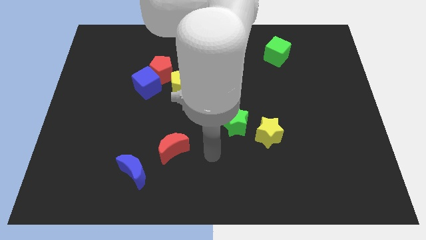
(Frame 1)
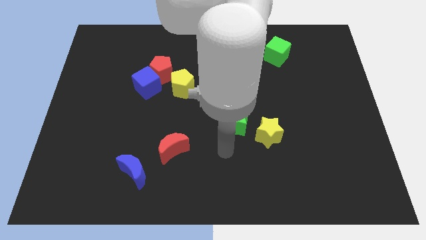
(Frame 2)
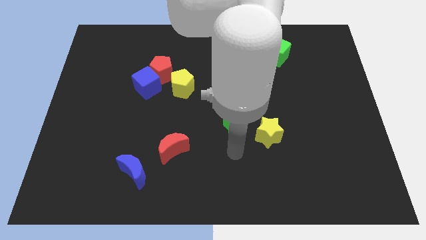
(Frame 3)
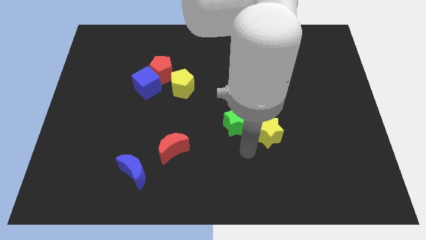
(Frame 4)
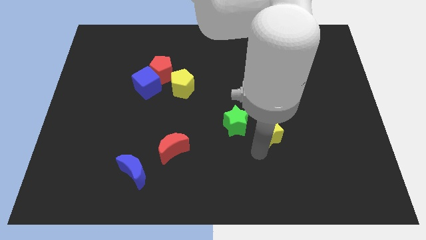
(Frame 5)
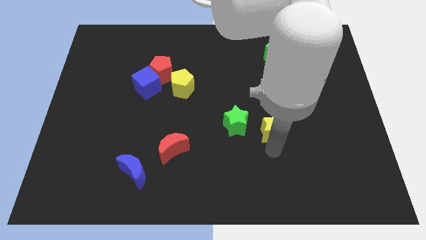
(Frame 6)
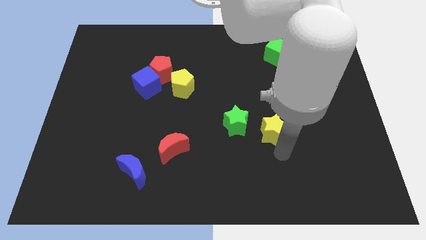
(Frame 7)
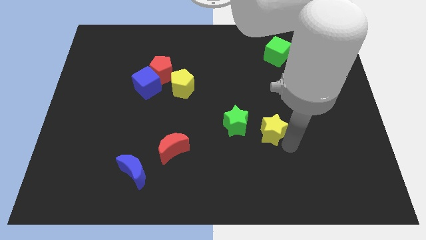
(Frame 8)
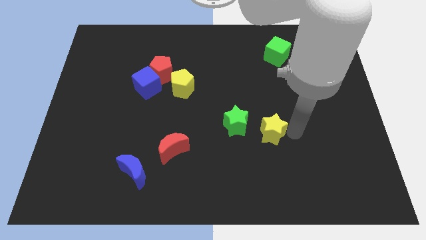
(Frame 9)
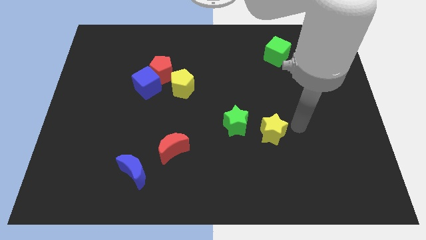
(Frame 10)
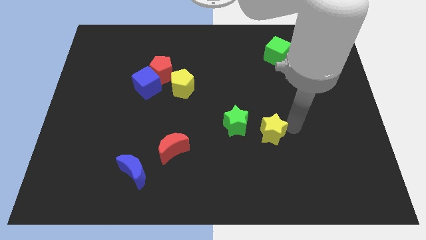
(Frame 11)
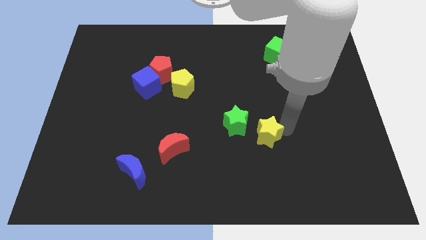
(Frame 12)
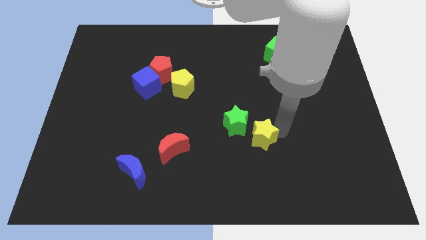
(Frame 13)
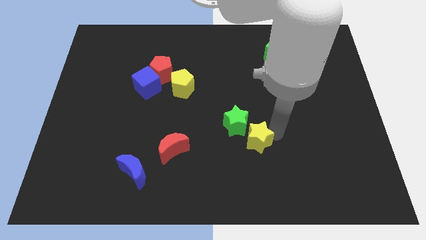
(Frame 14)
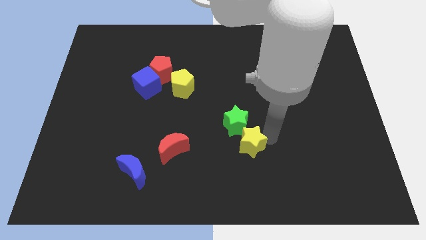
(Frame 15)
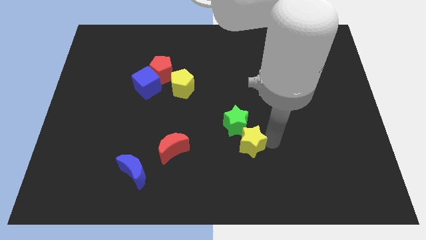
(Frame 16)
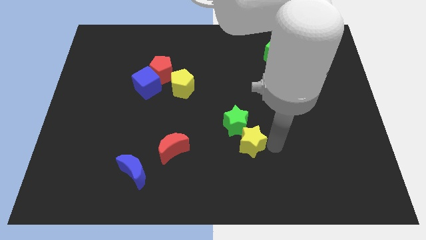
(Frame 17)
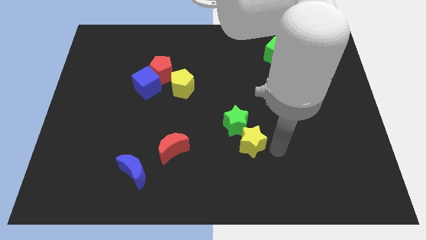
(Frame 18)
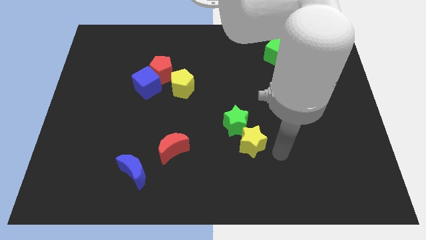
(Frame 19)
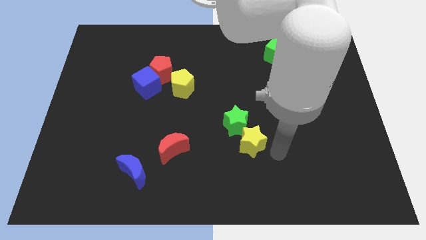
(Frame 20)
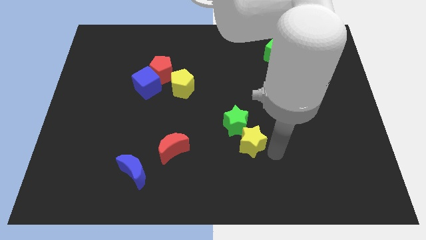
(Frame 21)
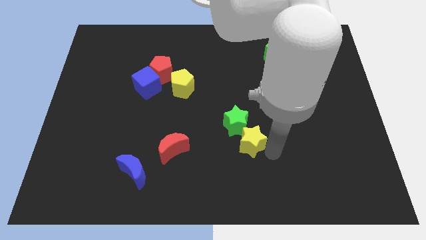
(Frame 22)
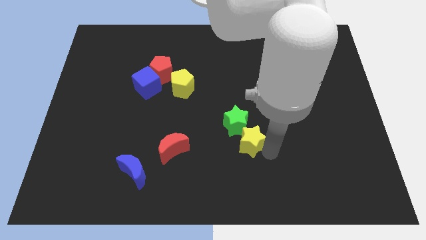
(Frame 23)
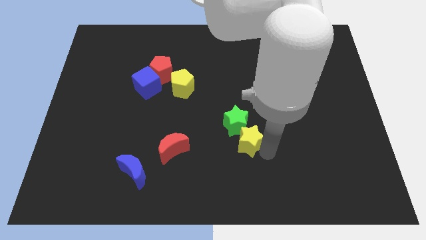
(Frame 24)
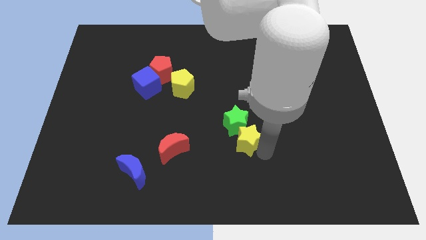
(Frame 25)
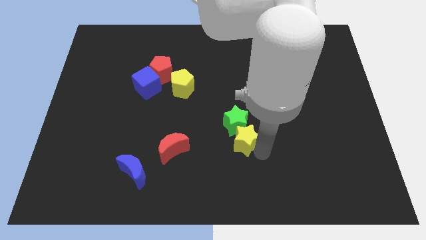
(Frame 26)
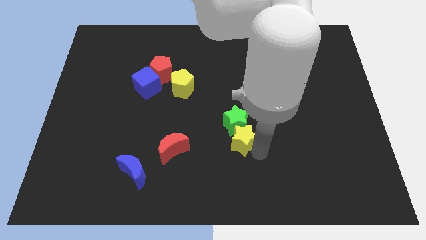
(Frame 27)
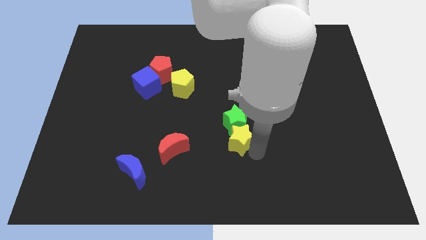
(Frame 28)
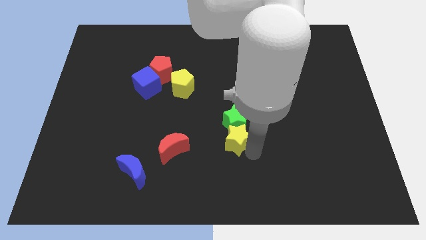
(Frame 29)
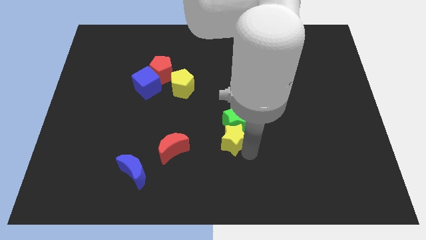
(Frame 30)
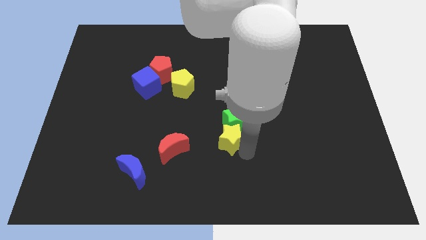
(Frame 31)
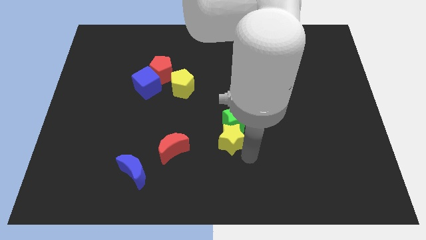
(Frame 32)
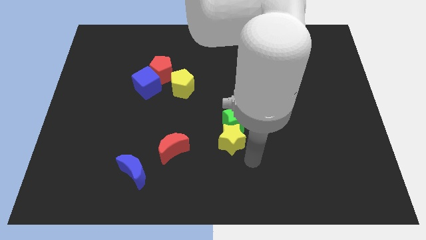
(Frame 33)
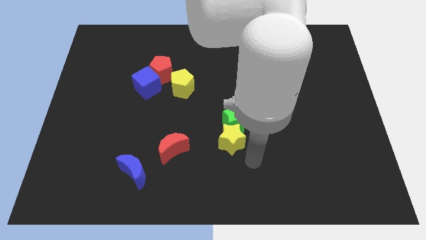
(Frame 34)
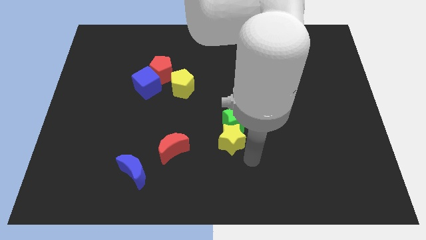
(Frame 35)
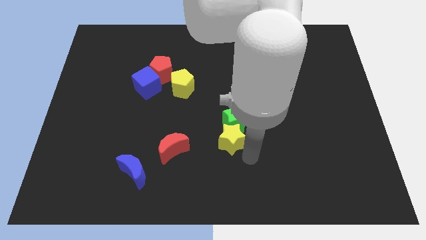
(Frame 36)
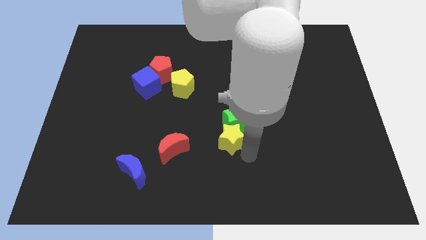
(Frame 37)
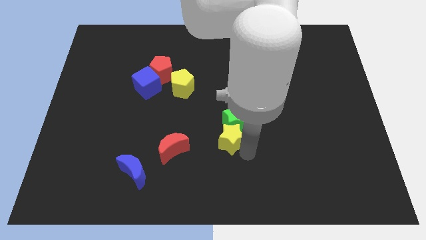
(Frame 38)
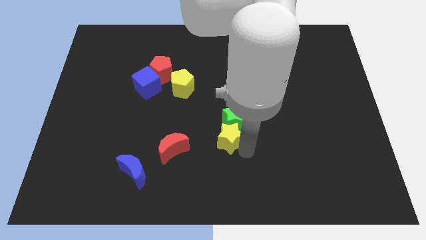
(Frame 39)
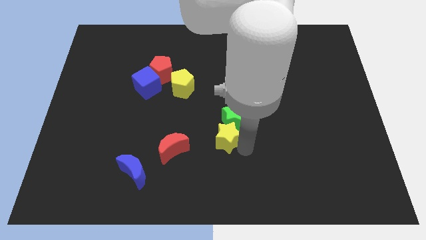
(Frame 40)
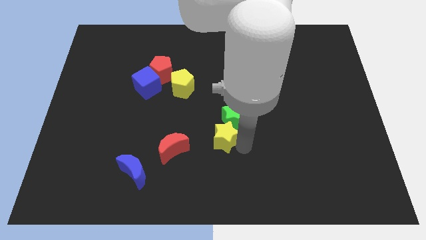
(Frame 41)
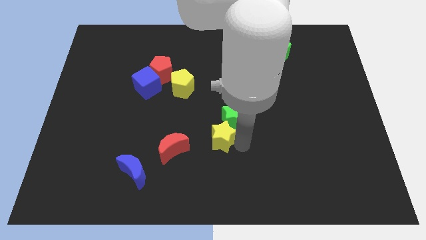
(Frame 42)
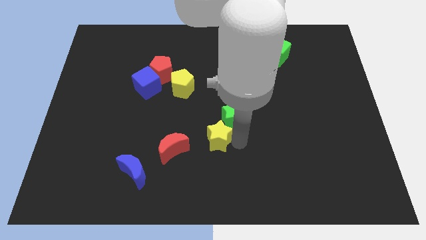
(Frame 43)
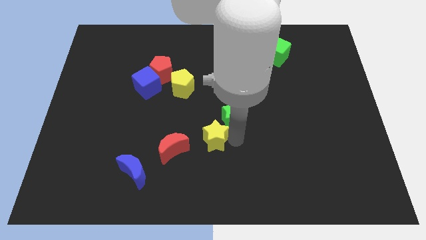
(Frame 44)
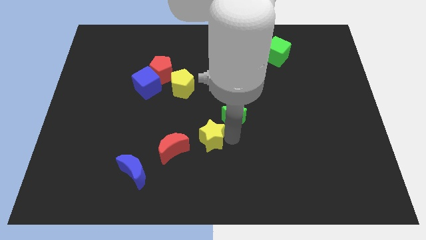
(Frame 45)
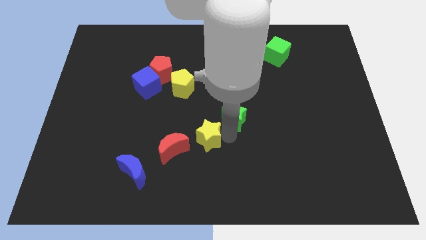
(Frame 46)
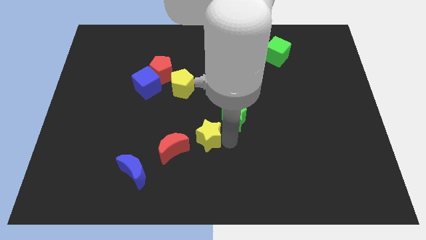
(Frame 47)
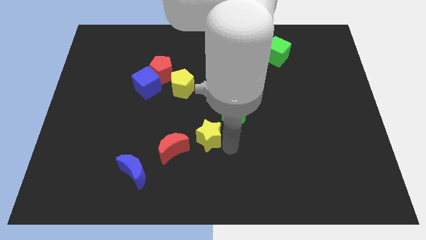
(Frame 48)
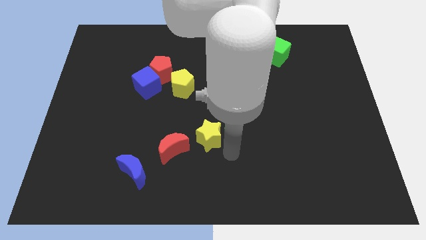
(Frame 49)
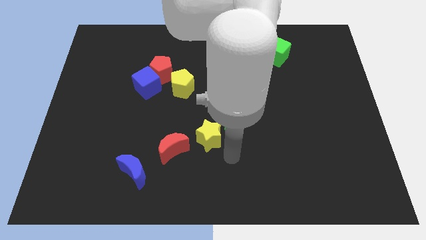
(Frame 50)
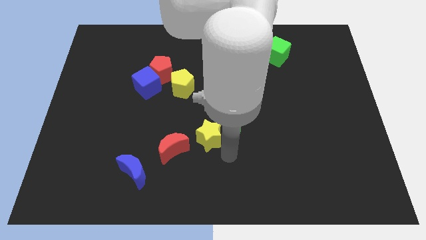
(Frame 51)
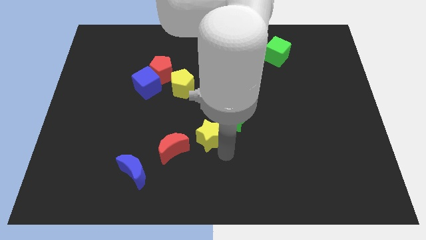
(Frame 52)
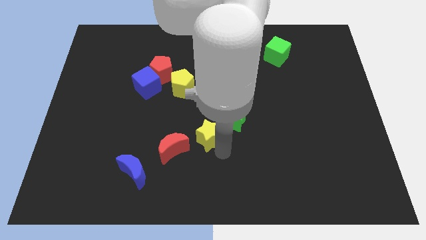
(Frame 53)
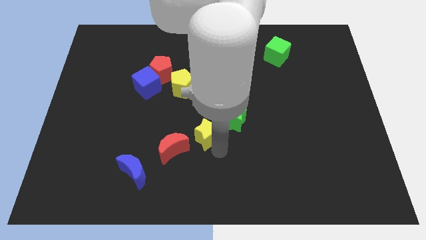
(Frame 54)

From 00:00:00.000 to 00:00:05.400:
put the yellow star just left of the green star

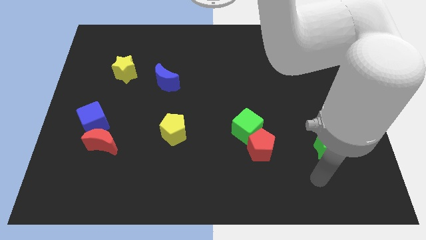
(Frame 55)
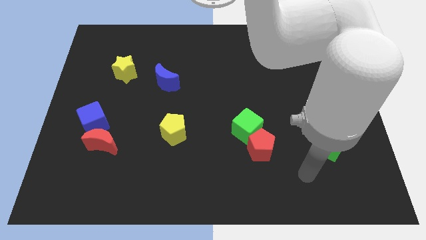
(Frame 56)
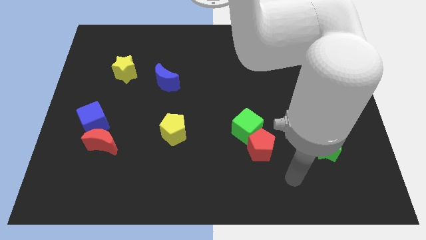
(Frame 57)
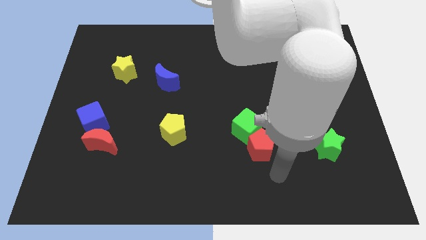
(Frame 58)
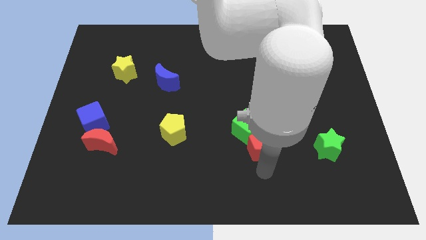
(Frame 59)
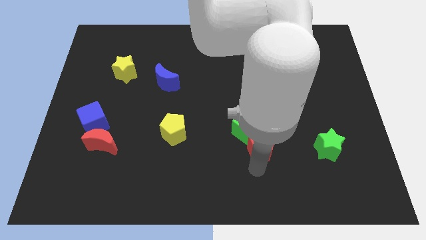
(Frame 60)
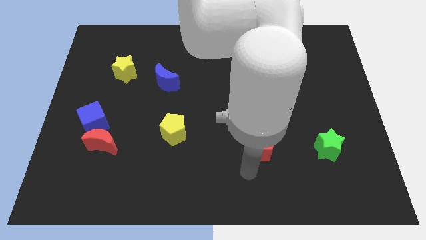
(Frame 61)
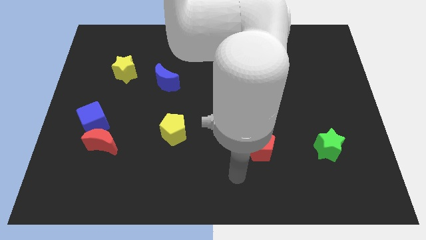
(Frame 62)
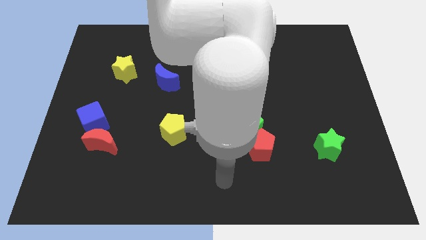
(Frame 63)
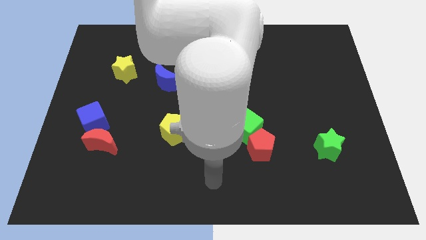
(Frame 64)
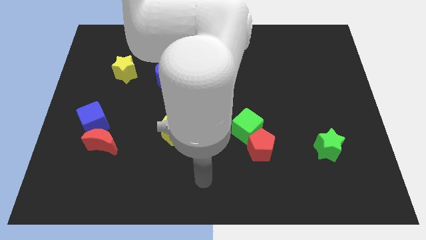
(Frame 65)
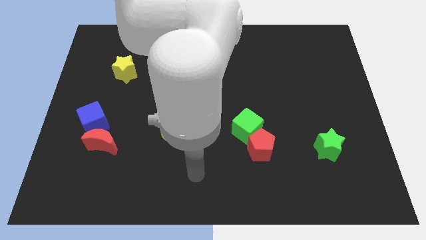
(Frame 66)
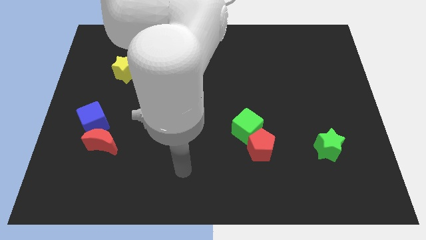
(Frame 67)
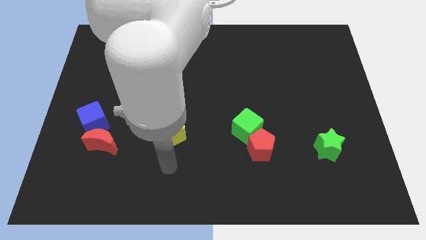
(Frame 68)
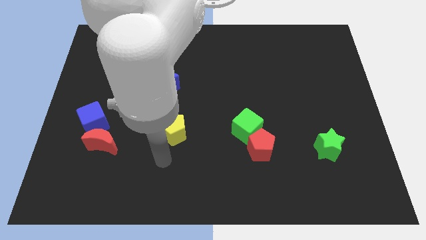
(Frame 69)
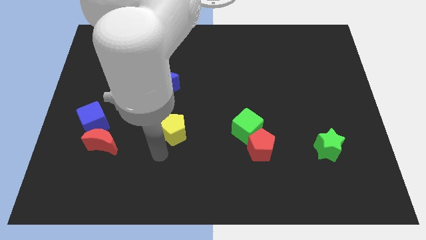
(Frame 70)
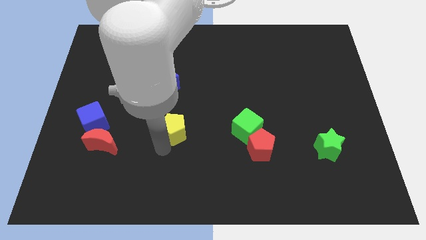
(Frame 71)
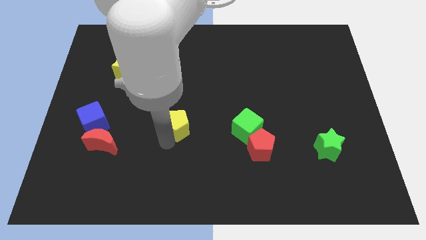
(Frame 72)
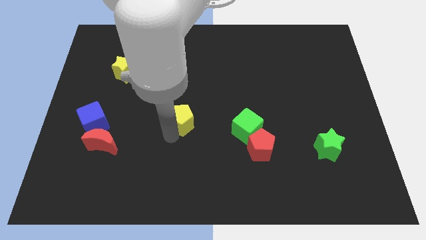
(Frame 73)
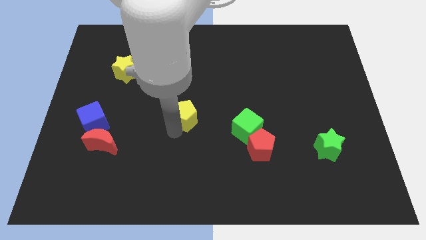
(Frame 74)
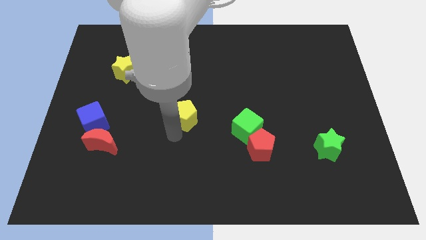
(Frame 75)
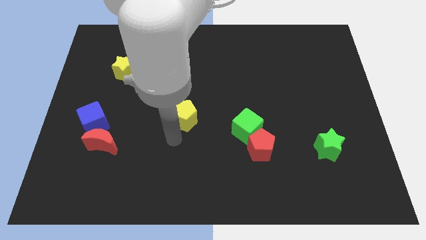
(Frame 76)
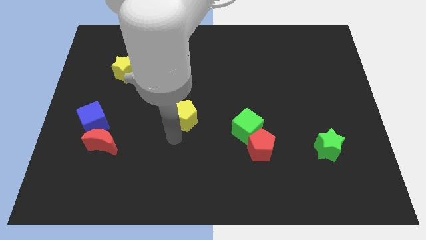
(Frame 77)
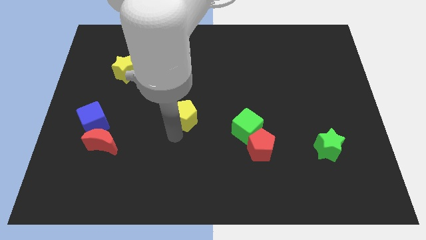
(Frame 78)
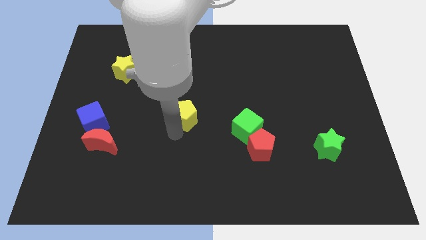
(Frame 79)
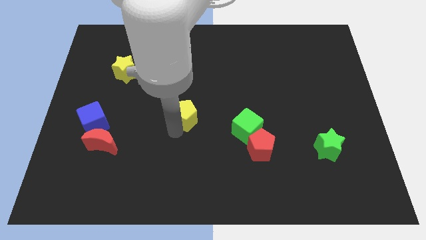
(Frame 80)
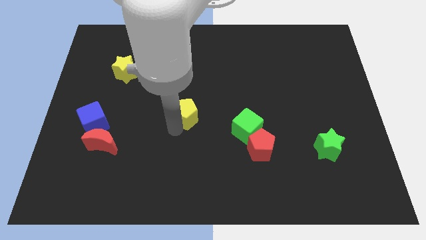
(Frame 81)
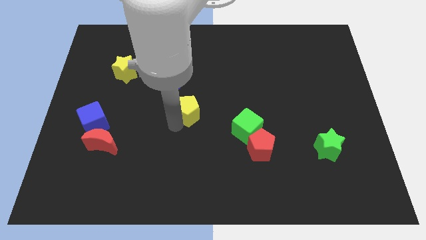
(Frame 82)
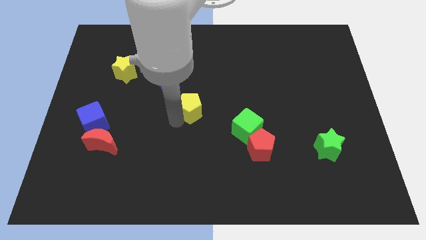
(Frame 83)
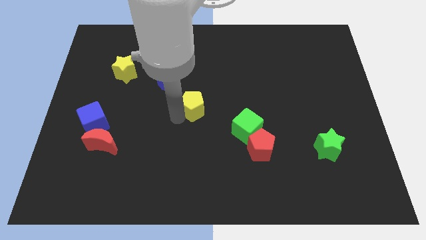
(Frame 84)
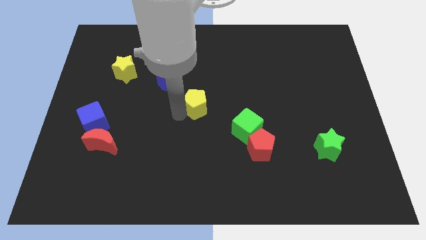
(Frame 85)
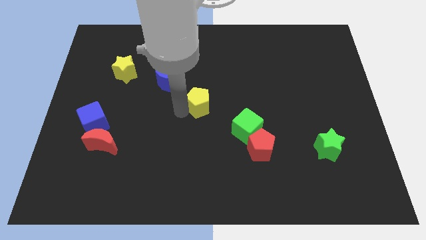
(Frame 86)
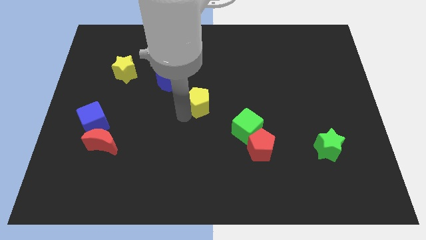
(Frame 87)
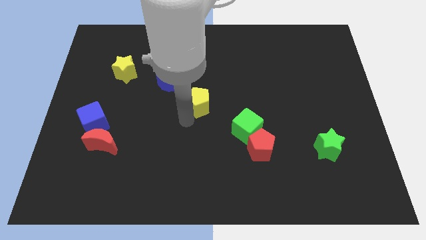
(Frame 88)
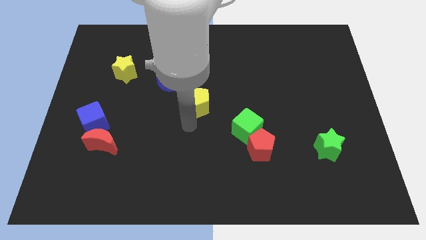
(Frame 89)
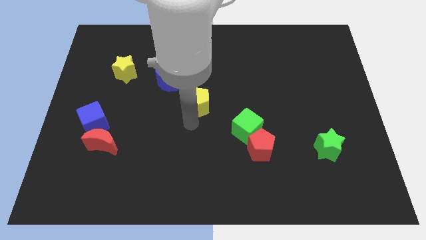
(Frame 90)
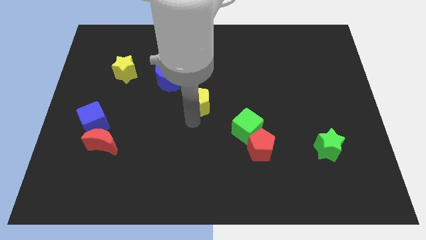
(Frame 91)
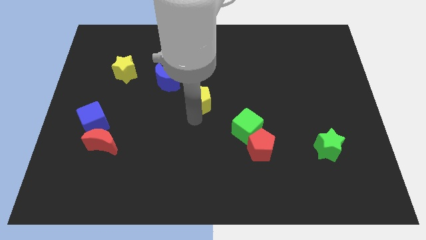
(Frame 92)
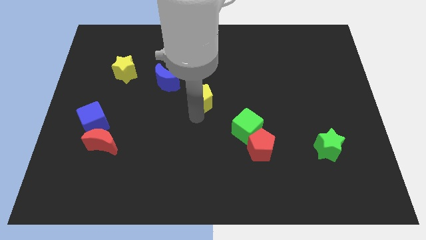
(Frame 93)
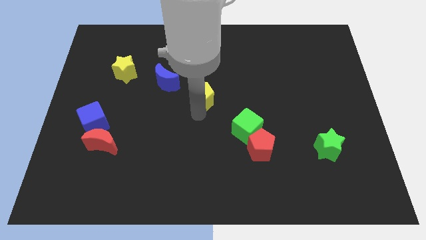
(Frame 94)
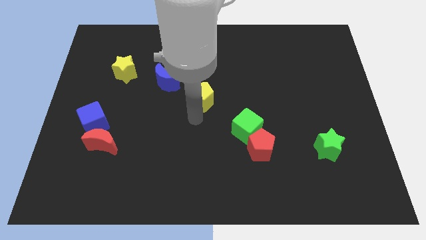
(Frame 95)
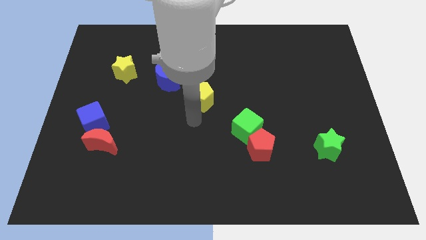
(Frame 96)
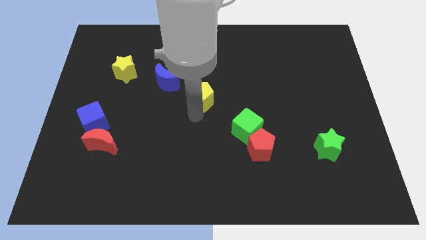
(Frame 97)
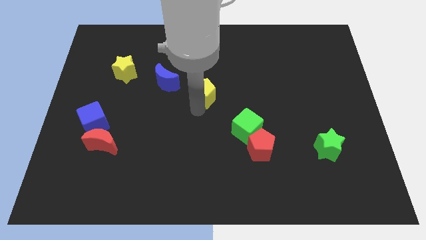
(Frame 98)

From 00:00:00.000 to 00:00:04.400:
push the yellow pentagon just right of the blue moon
